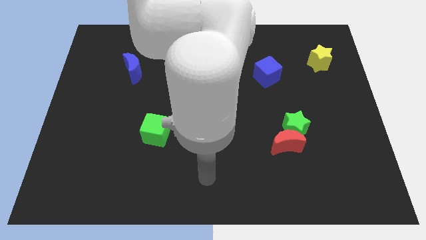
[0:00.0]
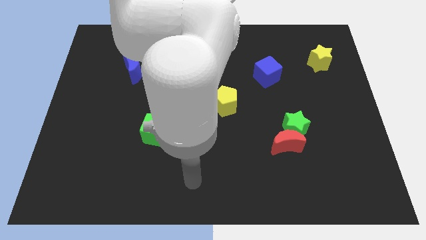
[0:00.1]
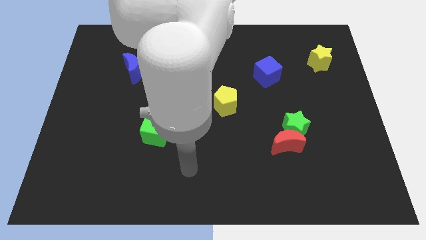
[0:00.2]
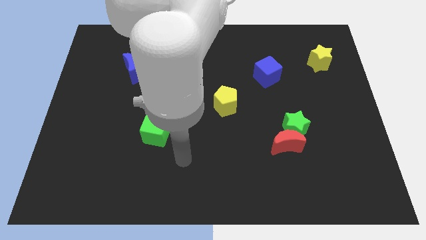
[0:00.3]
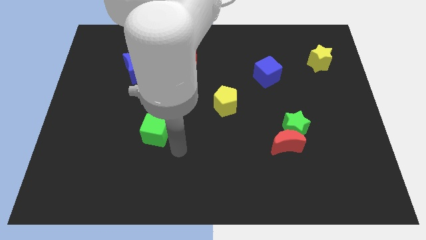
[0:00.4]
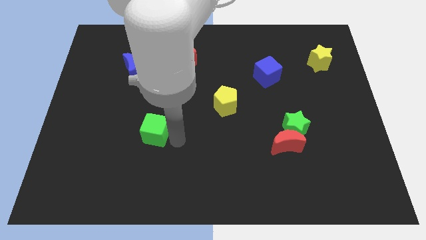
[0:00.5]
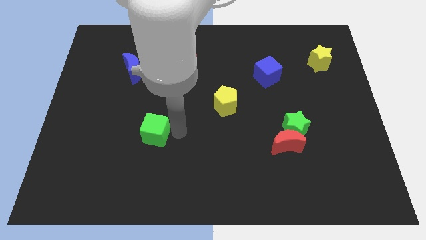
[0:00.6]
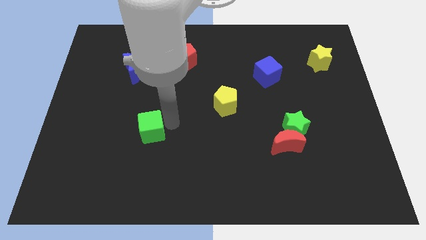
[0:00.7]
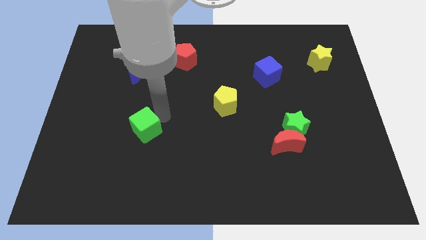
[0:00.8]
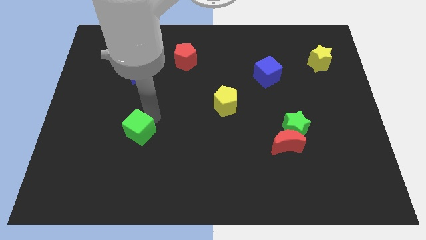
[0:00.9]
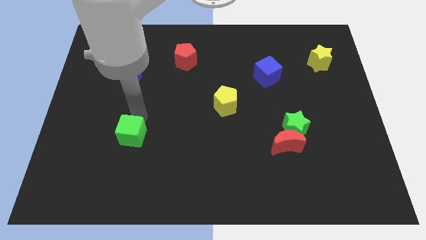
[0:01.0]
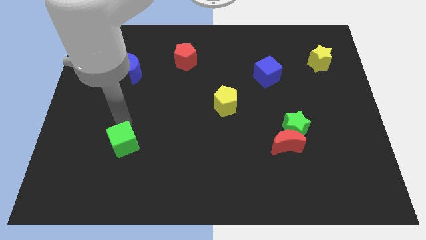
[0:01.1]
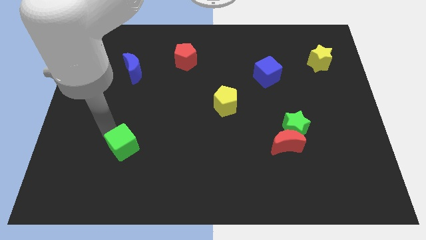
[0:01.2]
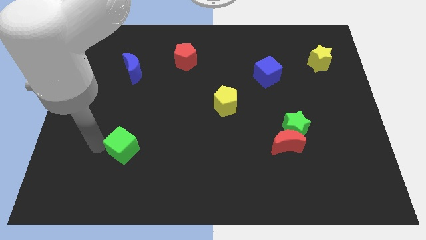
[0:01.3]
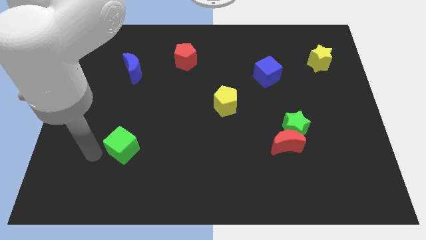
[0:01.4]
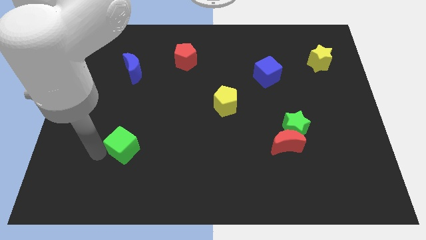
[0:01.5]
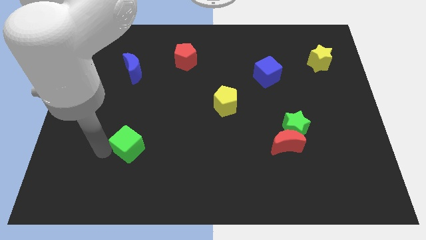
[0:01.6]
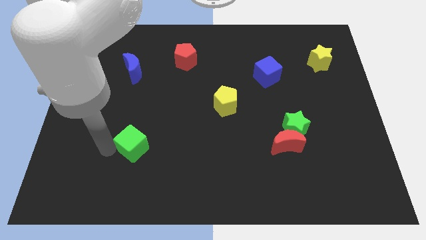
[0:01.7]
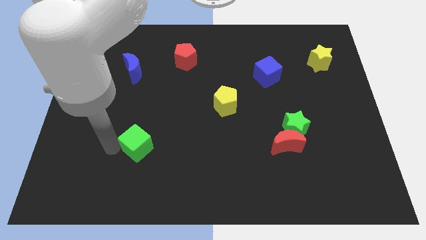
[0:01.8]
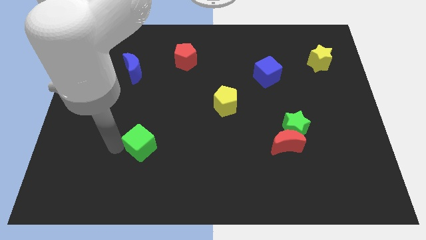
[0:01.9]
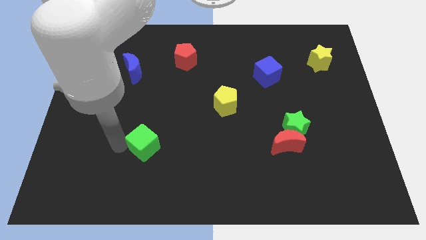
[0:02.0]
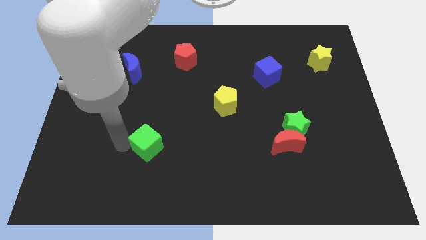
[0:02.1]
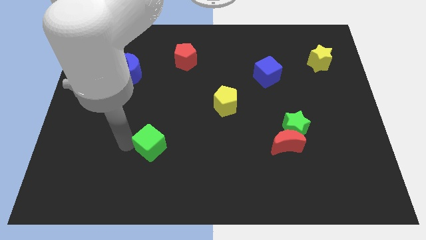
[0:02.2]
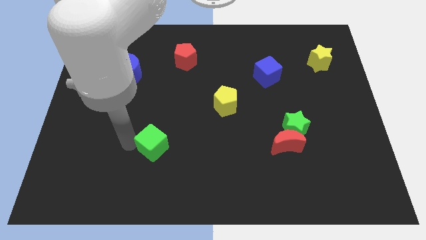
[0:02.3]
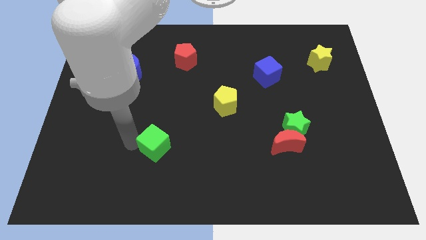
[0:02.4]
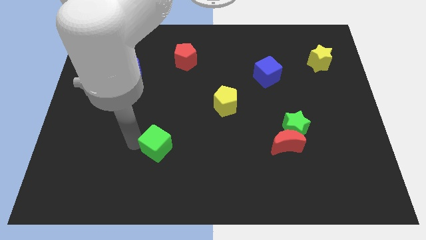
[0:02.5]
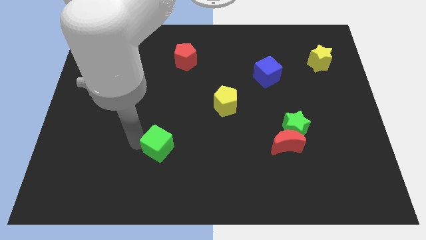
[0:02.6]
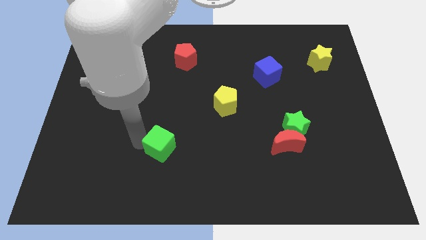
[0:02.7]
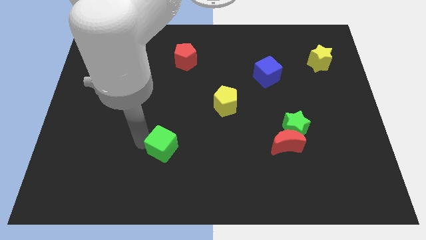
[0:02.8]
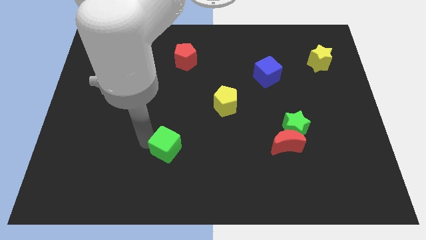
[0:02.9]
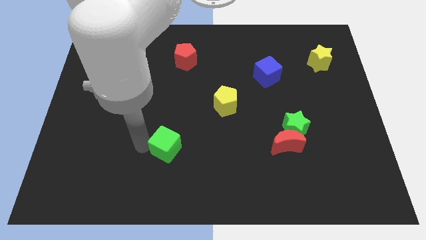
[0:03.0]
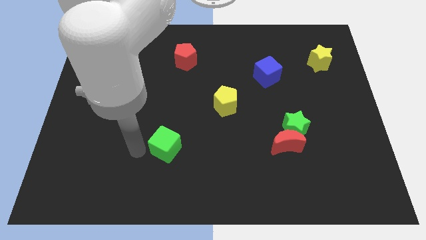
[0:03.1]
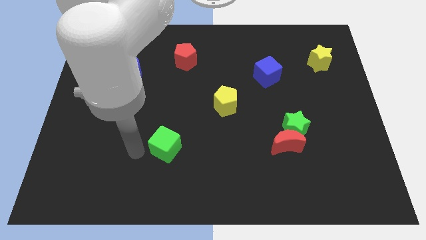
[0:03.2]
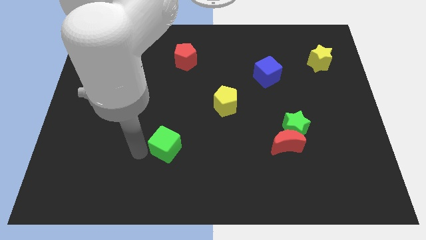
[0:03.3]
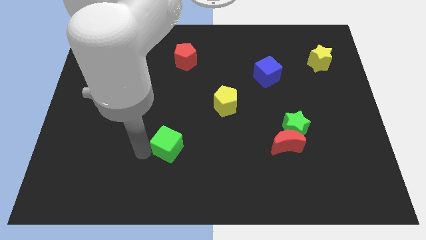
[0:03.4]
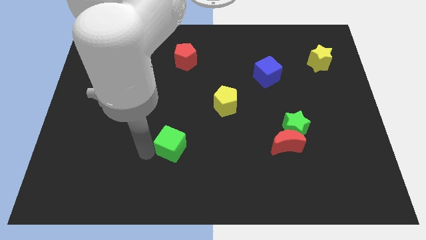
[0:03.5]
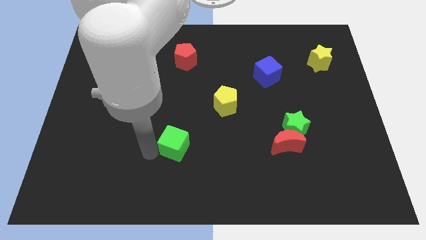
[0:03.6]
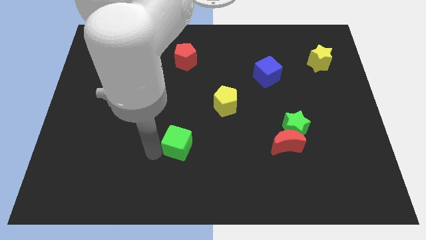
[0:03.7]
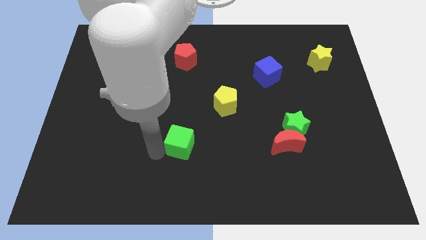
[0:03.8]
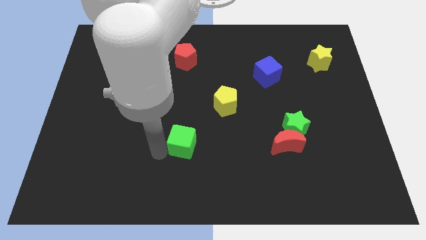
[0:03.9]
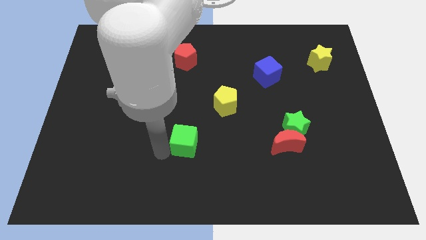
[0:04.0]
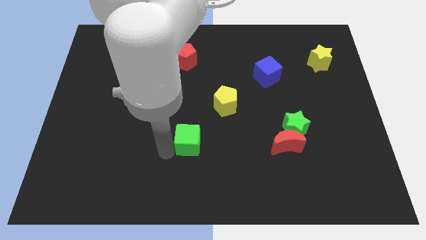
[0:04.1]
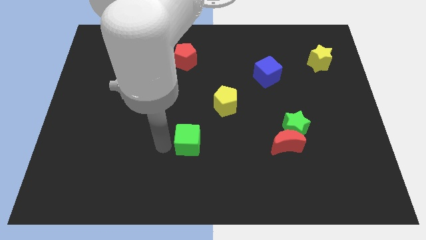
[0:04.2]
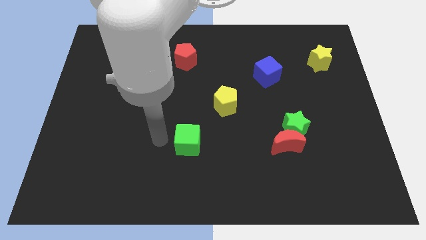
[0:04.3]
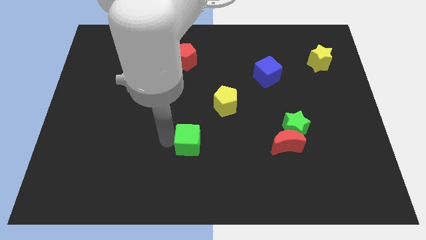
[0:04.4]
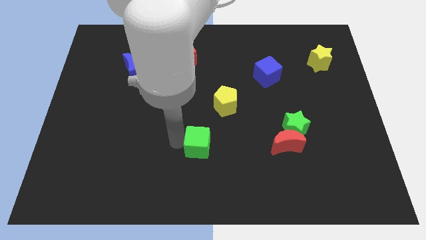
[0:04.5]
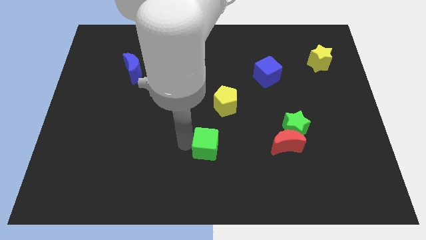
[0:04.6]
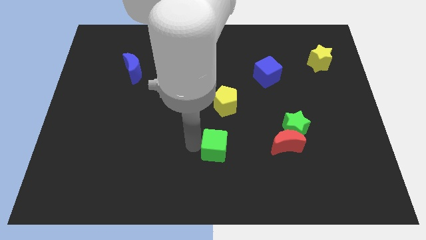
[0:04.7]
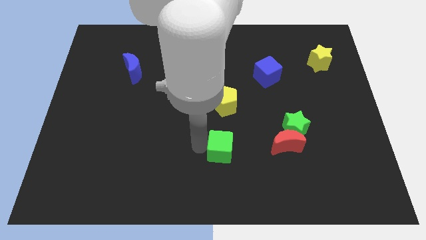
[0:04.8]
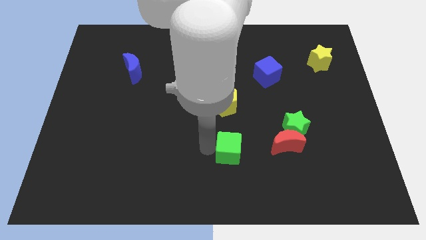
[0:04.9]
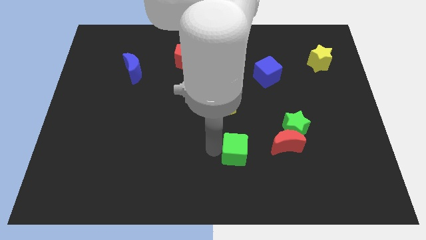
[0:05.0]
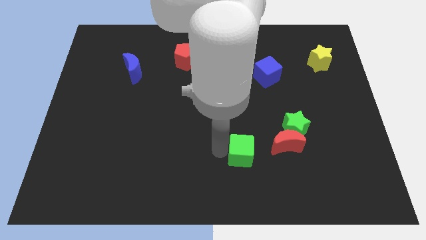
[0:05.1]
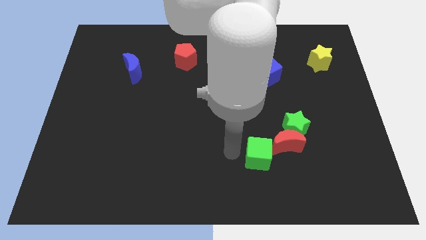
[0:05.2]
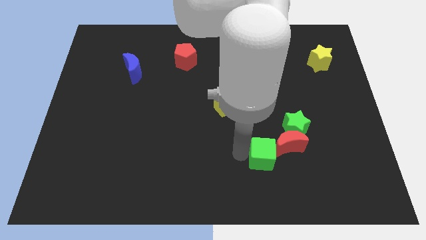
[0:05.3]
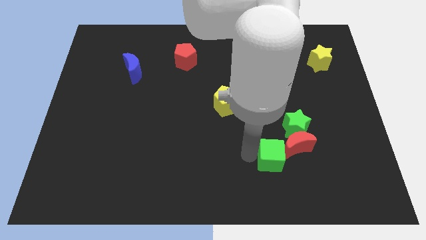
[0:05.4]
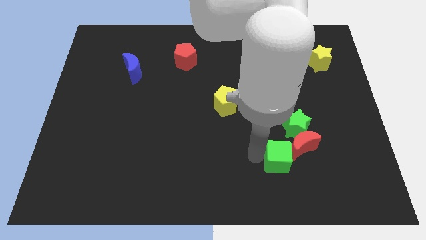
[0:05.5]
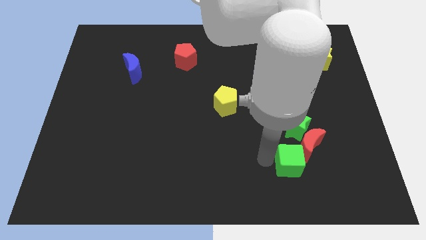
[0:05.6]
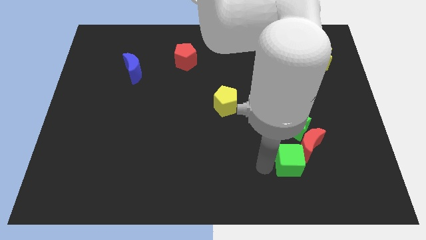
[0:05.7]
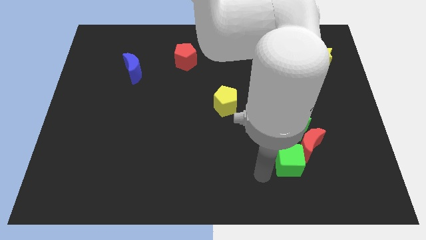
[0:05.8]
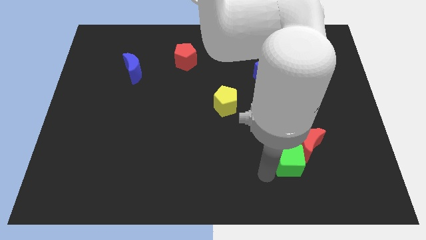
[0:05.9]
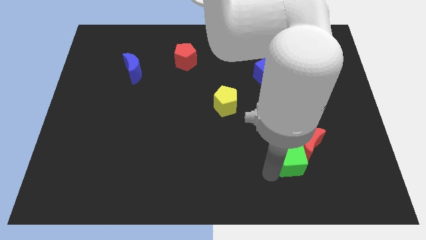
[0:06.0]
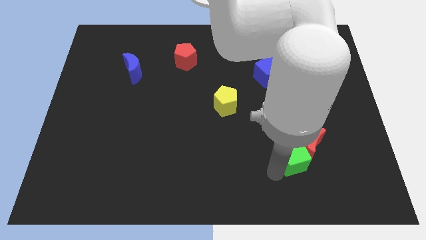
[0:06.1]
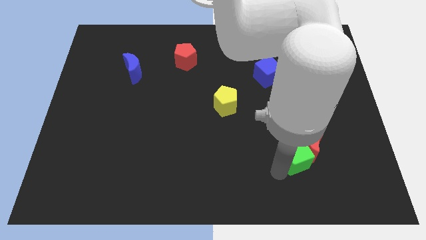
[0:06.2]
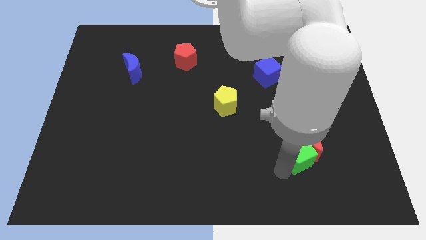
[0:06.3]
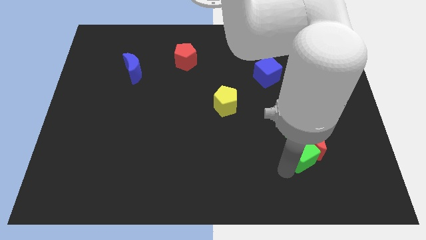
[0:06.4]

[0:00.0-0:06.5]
push the green cube to the bottom right of the green star

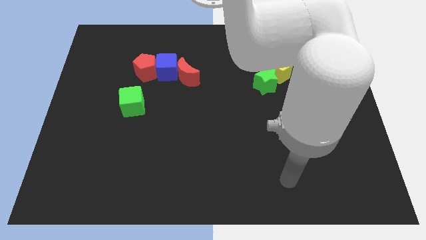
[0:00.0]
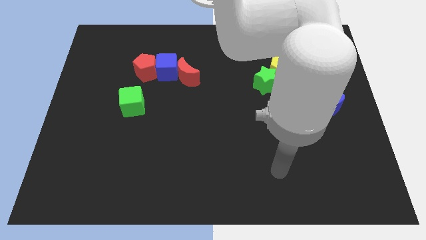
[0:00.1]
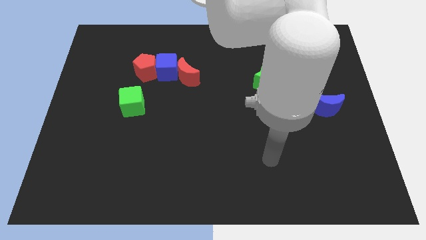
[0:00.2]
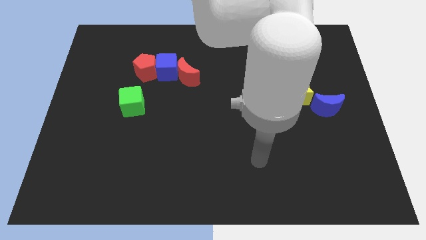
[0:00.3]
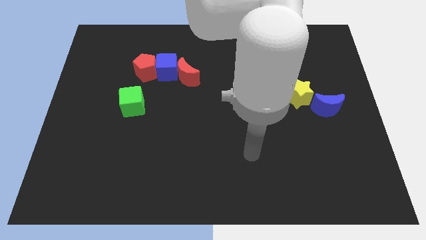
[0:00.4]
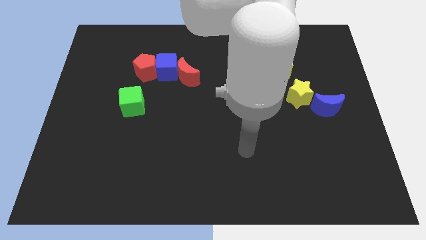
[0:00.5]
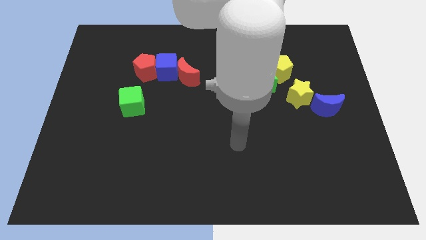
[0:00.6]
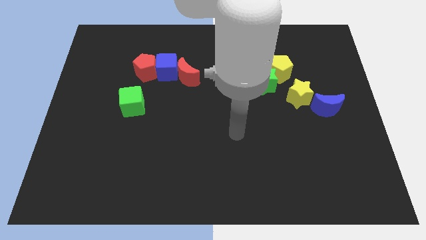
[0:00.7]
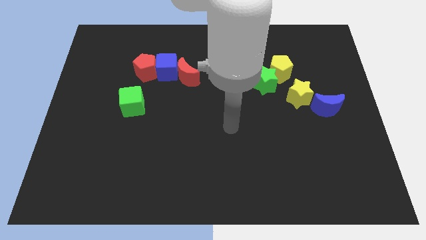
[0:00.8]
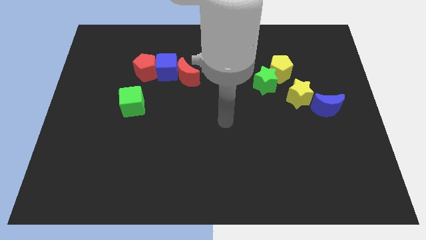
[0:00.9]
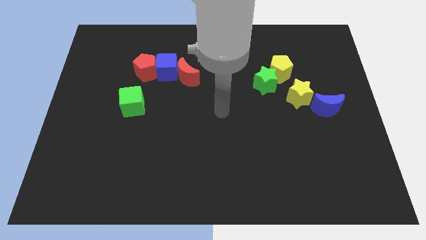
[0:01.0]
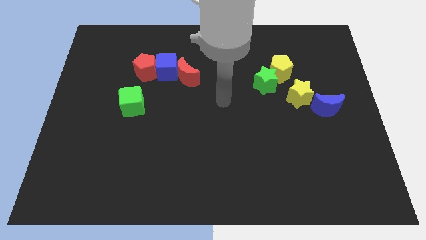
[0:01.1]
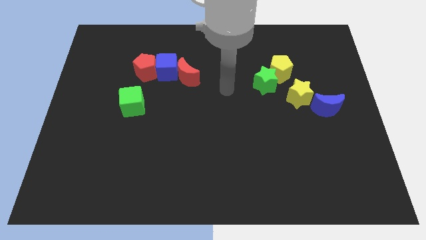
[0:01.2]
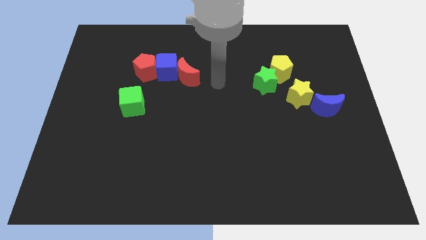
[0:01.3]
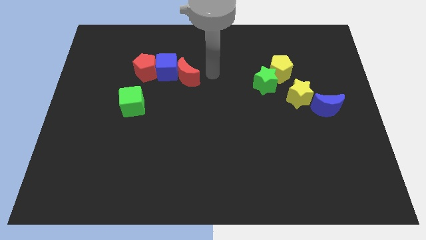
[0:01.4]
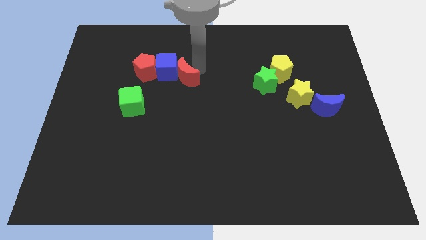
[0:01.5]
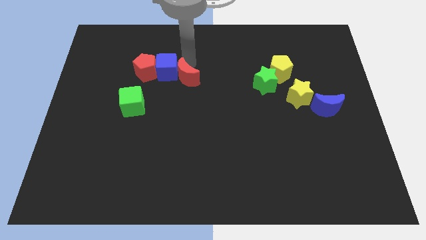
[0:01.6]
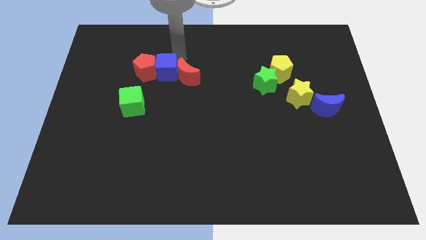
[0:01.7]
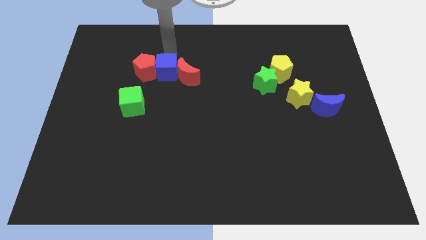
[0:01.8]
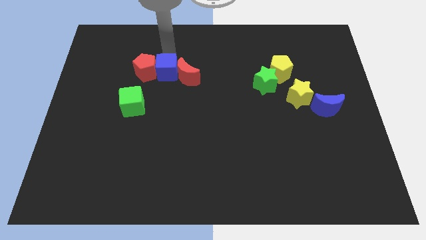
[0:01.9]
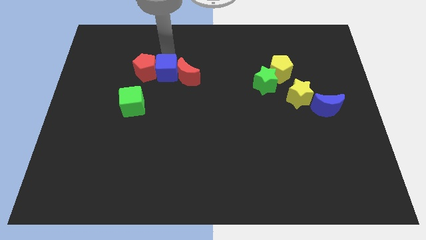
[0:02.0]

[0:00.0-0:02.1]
put the blue cube to the bottom left of the red moon
